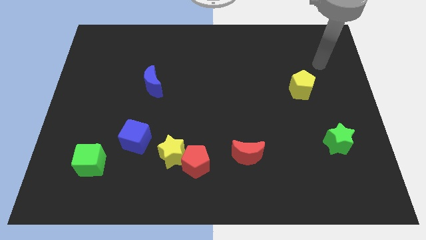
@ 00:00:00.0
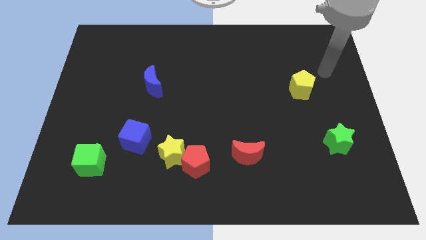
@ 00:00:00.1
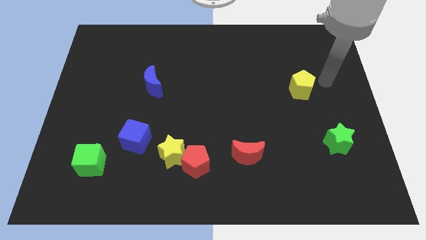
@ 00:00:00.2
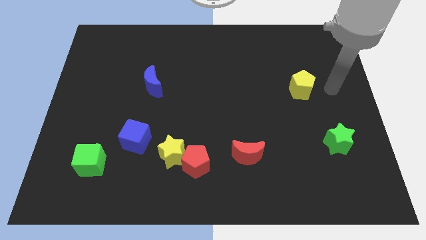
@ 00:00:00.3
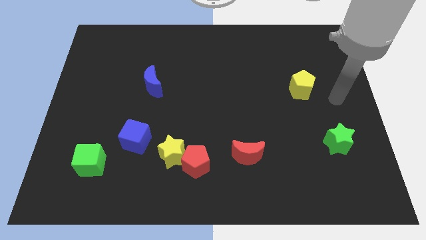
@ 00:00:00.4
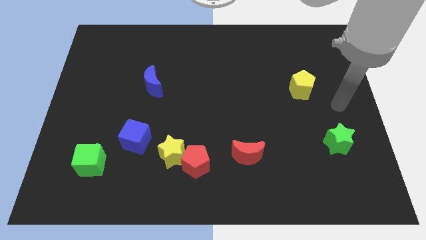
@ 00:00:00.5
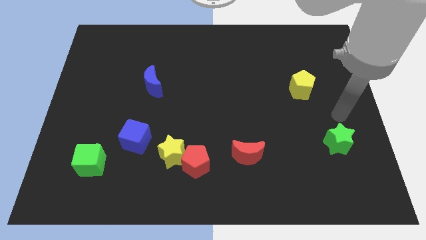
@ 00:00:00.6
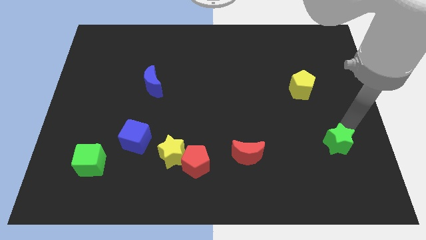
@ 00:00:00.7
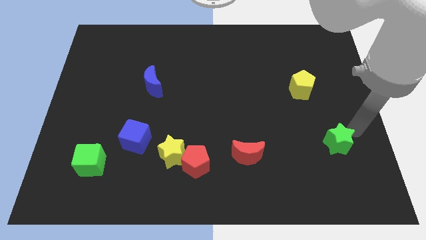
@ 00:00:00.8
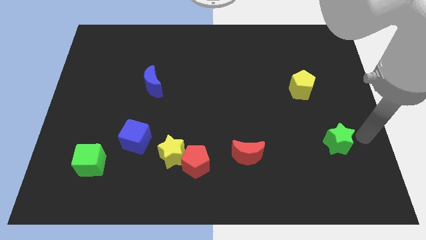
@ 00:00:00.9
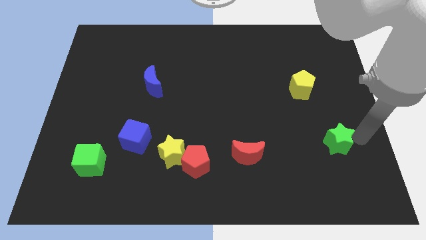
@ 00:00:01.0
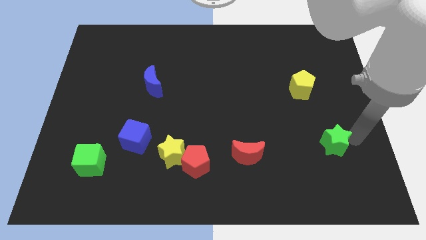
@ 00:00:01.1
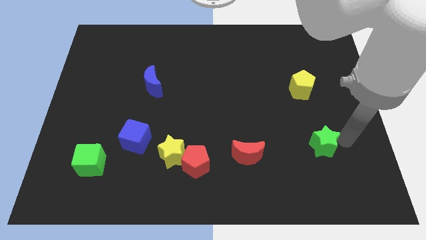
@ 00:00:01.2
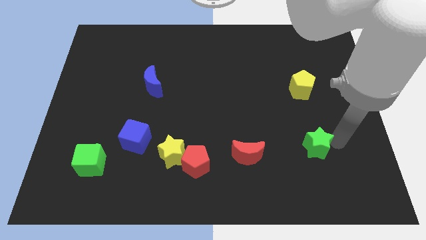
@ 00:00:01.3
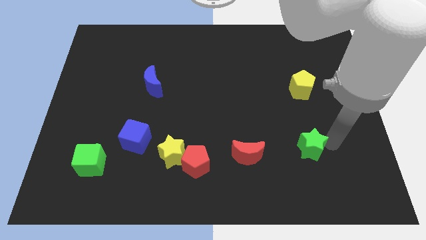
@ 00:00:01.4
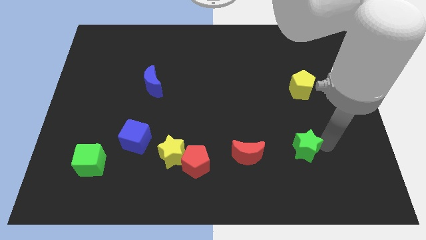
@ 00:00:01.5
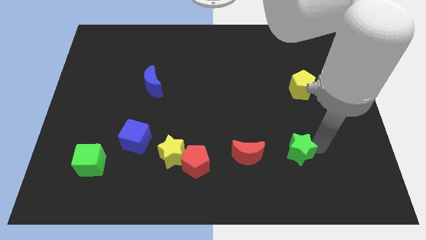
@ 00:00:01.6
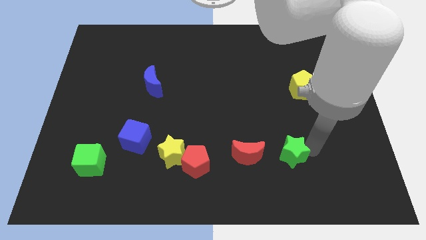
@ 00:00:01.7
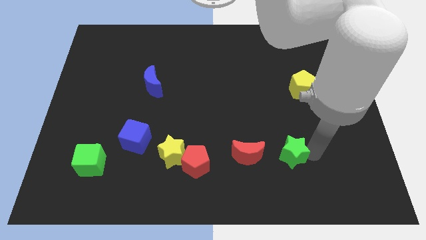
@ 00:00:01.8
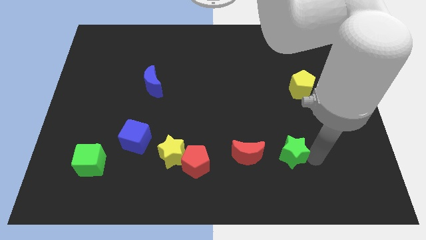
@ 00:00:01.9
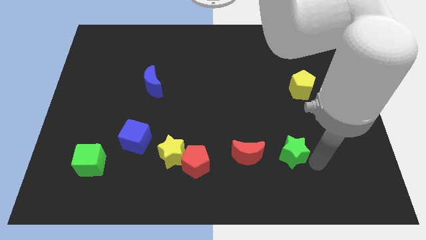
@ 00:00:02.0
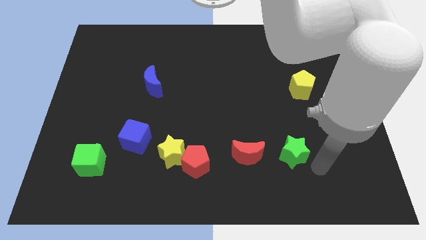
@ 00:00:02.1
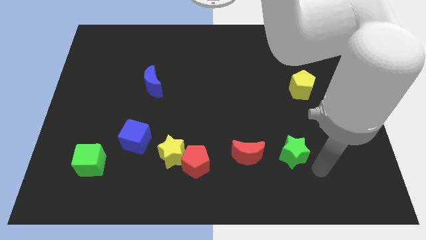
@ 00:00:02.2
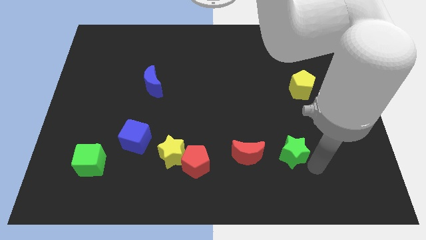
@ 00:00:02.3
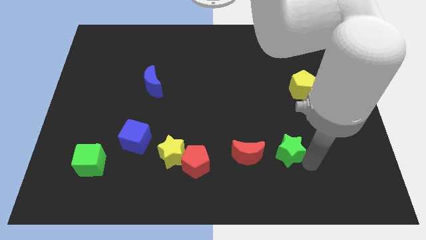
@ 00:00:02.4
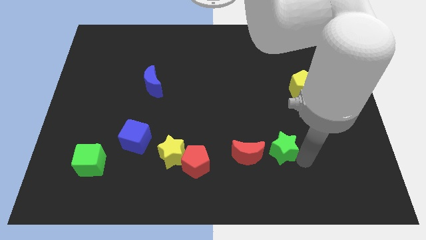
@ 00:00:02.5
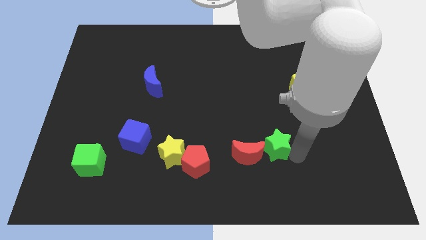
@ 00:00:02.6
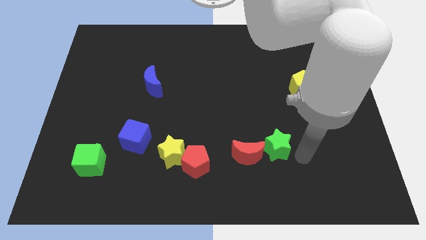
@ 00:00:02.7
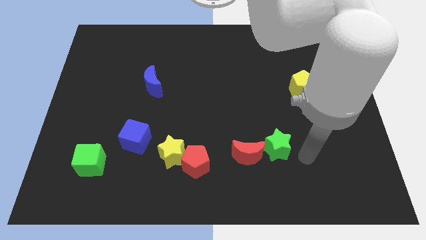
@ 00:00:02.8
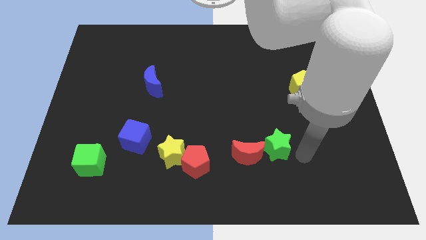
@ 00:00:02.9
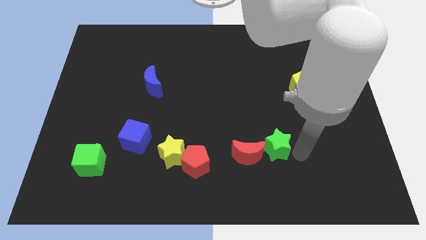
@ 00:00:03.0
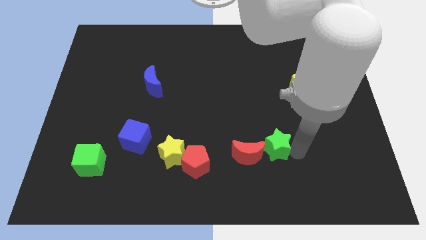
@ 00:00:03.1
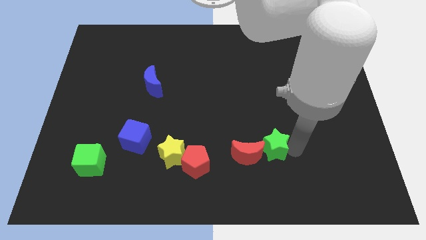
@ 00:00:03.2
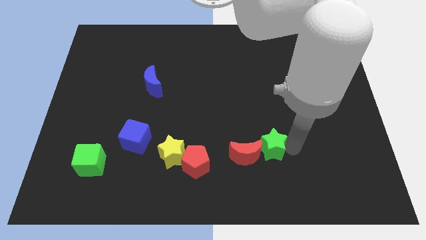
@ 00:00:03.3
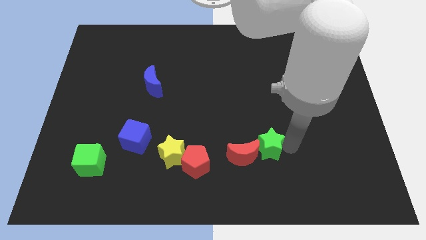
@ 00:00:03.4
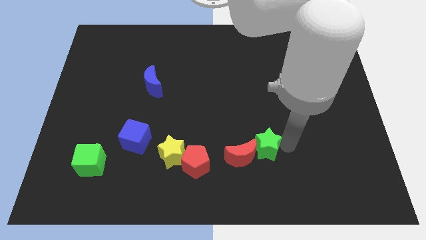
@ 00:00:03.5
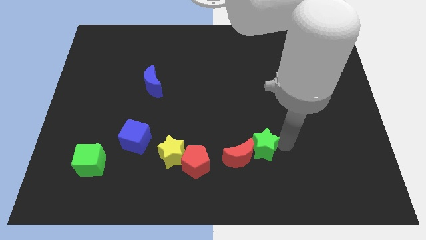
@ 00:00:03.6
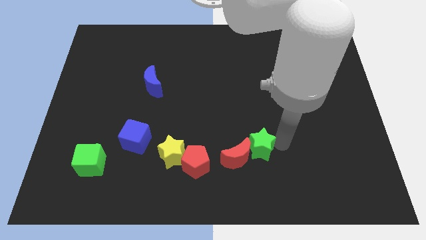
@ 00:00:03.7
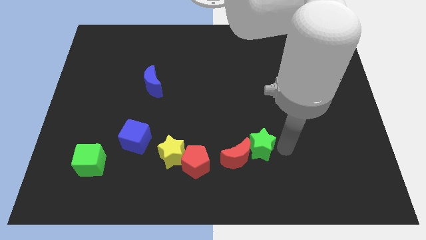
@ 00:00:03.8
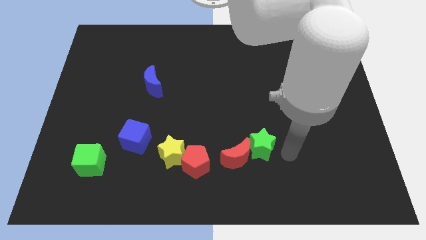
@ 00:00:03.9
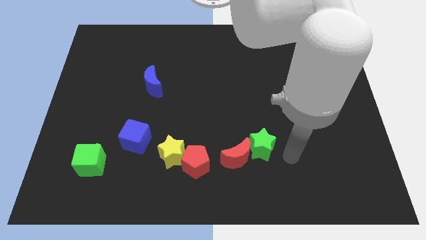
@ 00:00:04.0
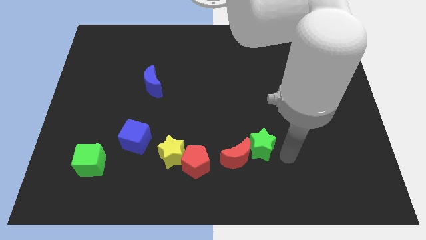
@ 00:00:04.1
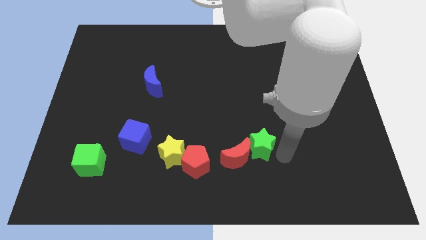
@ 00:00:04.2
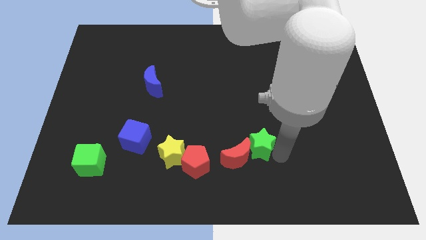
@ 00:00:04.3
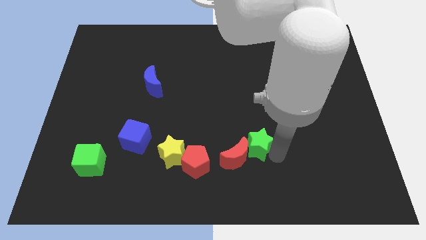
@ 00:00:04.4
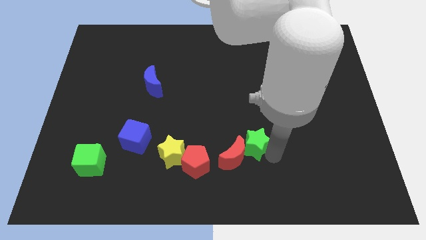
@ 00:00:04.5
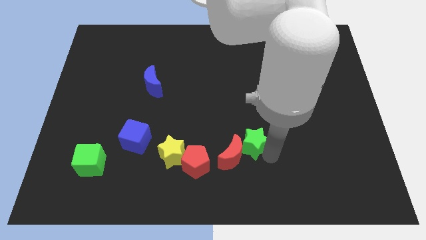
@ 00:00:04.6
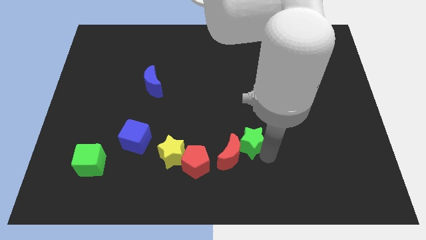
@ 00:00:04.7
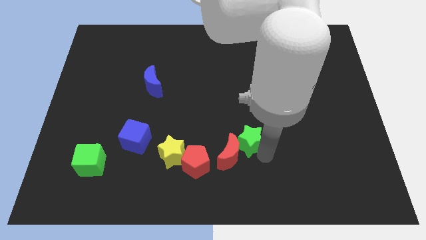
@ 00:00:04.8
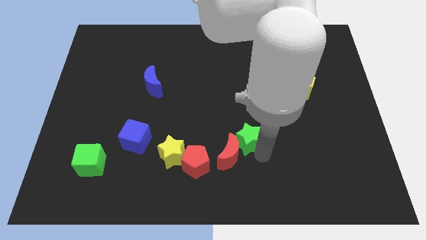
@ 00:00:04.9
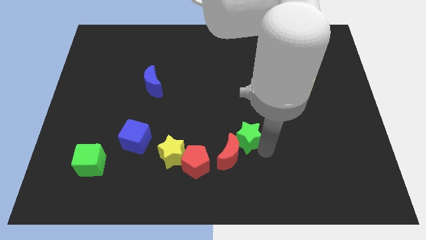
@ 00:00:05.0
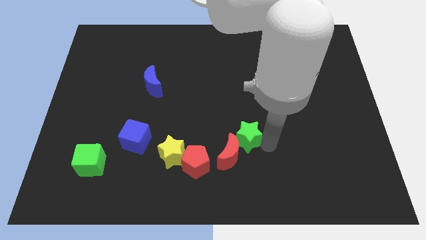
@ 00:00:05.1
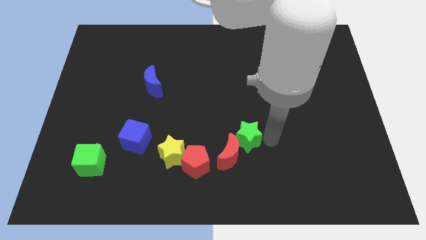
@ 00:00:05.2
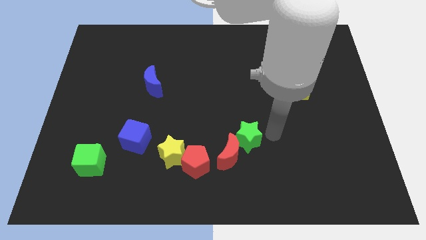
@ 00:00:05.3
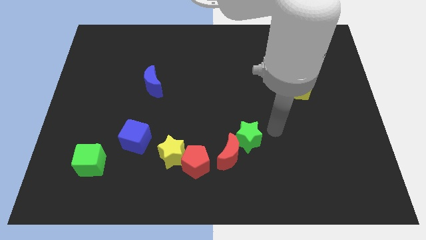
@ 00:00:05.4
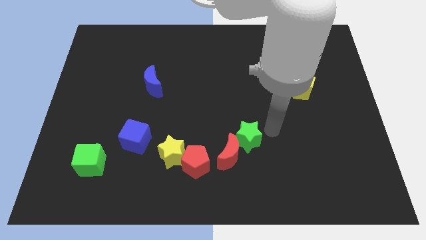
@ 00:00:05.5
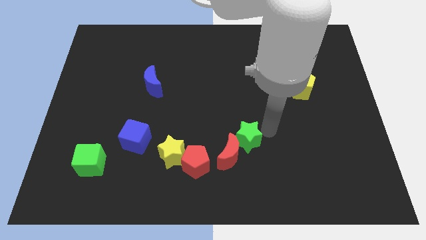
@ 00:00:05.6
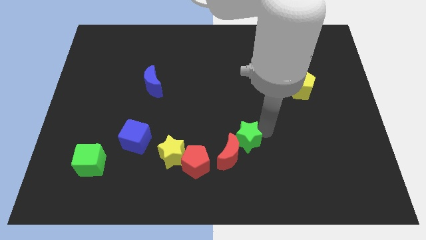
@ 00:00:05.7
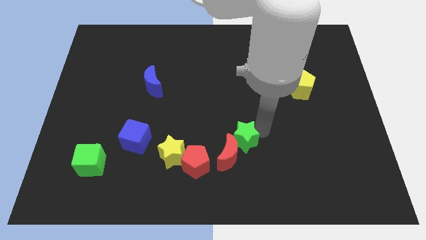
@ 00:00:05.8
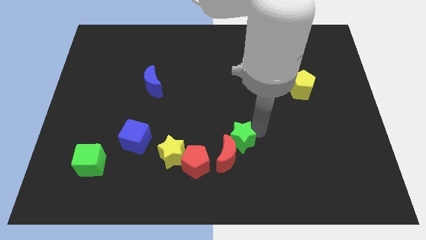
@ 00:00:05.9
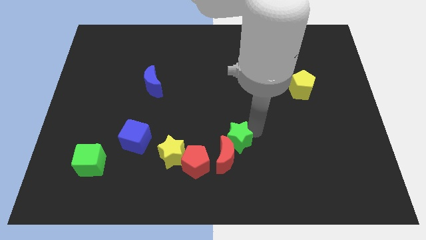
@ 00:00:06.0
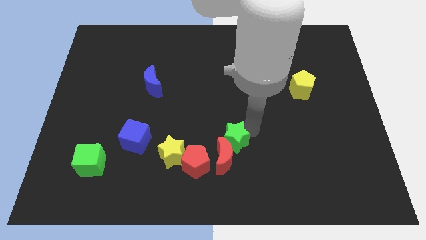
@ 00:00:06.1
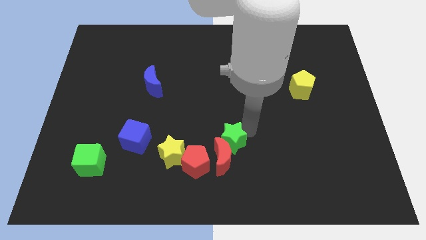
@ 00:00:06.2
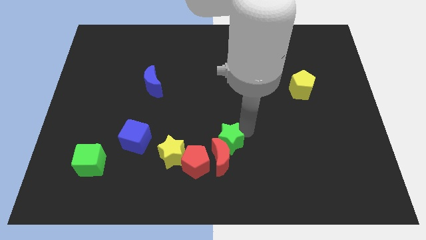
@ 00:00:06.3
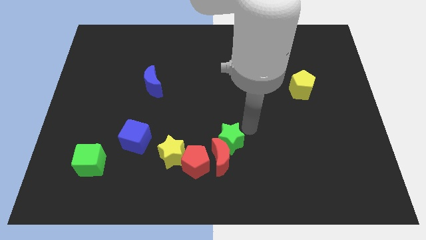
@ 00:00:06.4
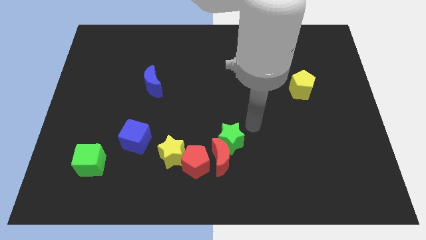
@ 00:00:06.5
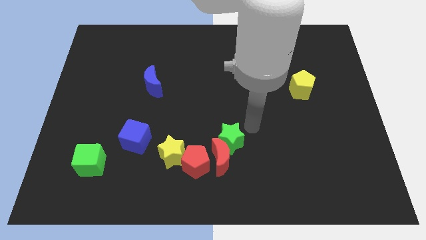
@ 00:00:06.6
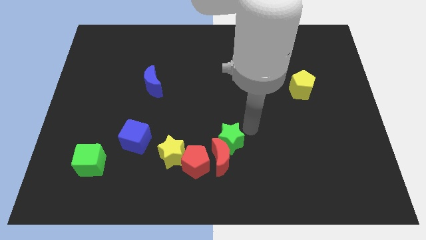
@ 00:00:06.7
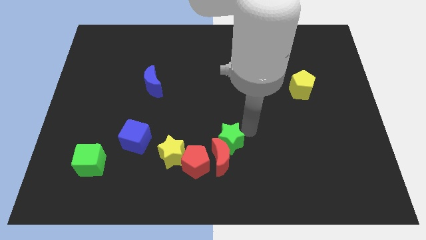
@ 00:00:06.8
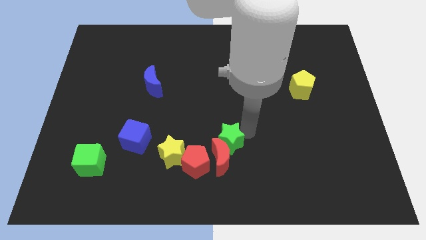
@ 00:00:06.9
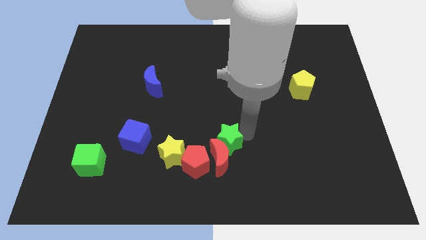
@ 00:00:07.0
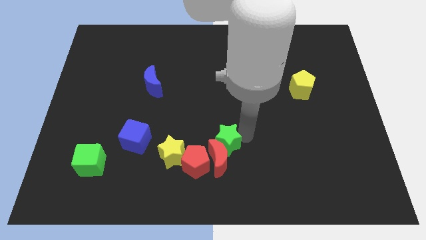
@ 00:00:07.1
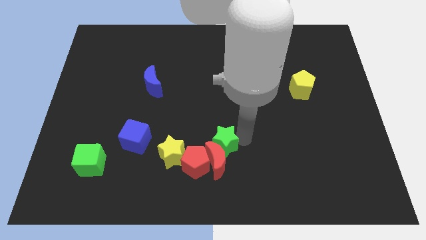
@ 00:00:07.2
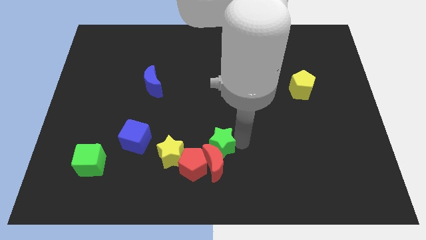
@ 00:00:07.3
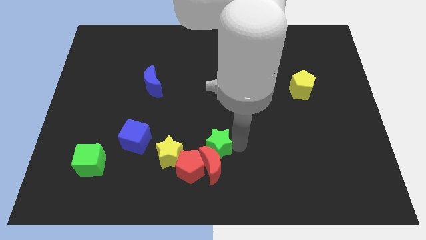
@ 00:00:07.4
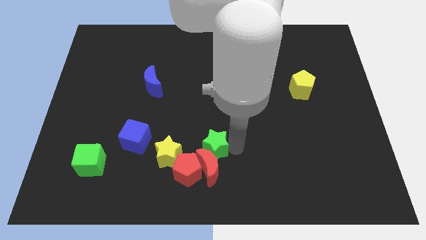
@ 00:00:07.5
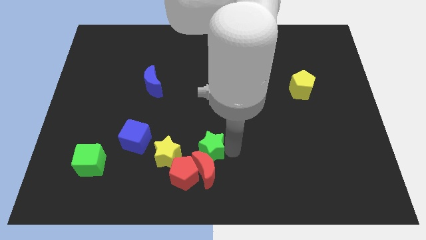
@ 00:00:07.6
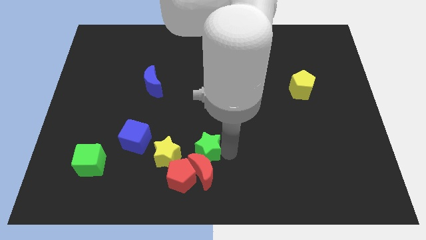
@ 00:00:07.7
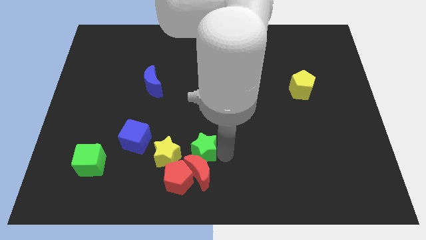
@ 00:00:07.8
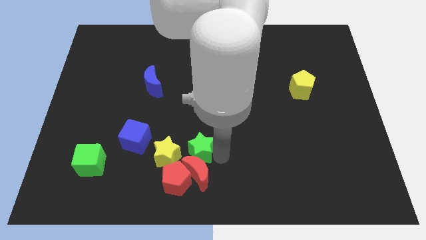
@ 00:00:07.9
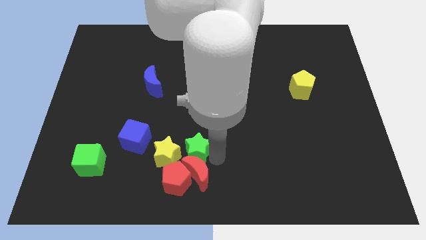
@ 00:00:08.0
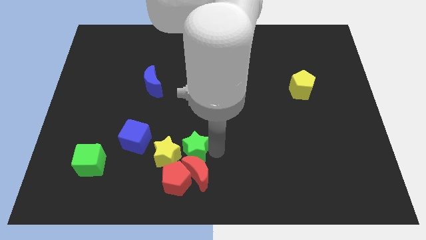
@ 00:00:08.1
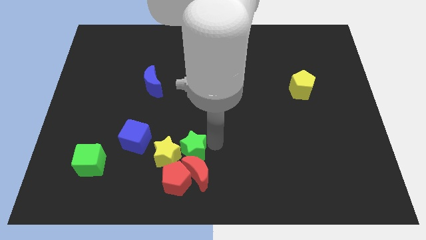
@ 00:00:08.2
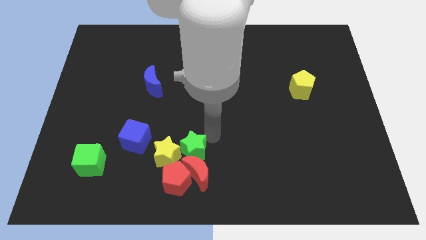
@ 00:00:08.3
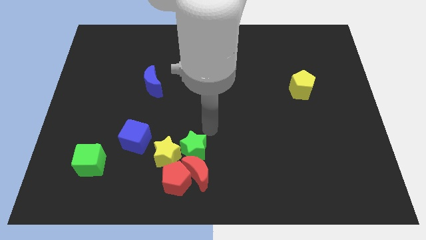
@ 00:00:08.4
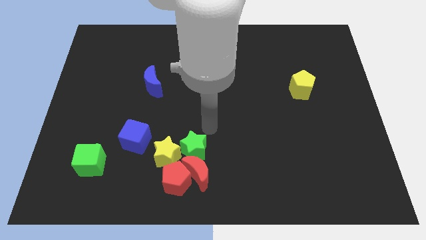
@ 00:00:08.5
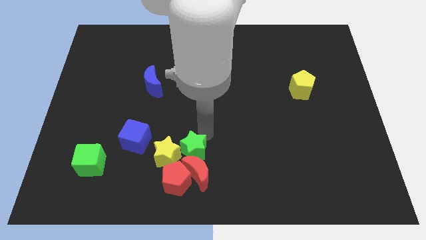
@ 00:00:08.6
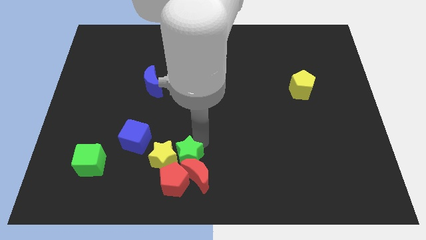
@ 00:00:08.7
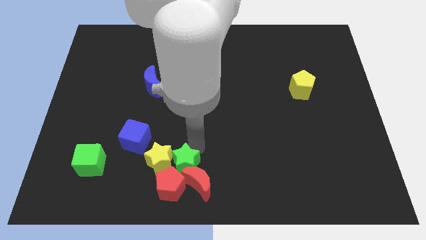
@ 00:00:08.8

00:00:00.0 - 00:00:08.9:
move the green star close to the red pentagon
